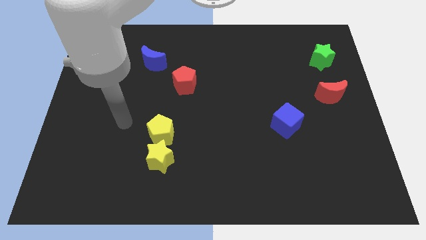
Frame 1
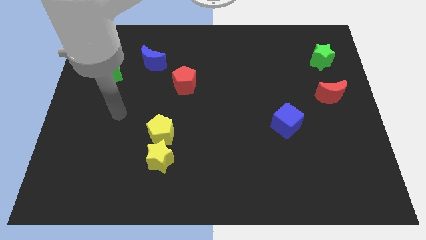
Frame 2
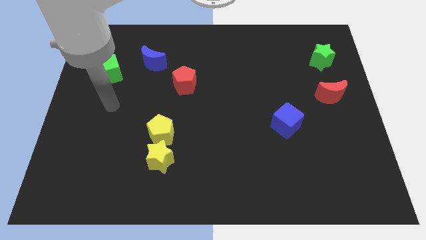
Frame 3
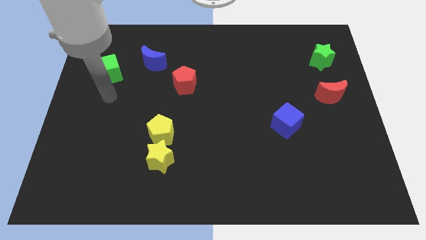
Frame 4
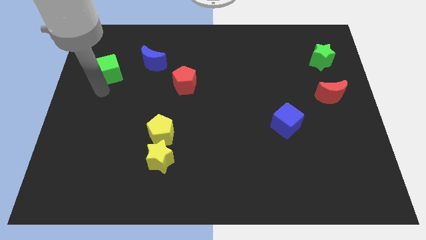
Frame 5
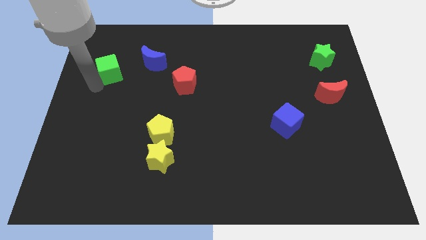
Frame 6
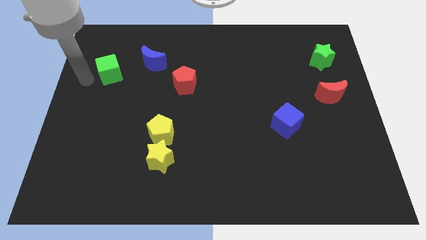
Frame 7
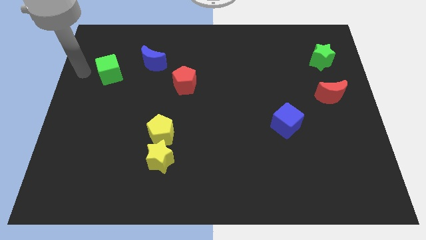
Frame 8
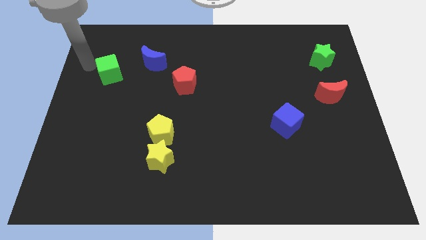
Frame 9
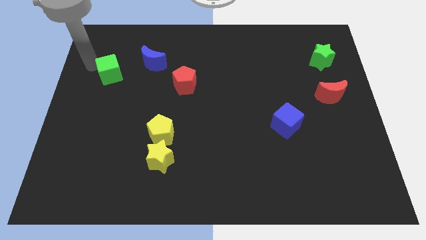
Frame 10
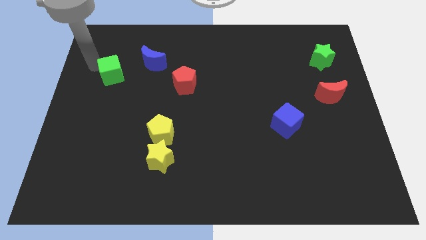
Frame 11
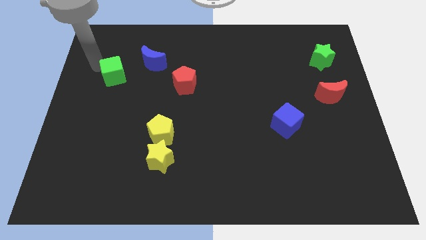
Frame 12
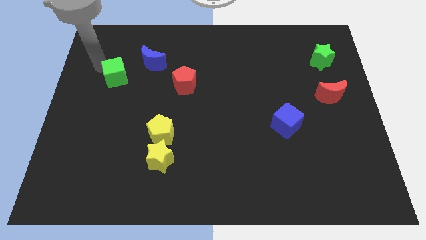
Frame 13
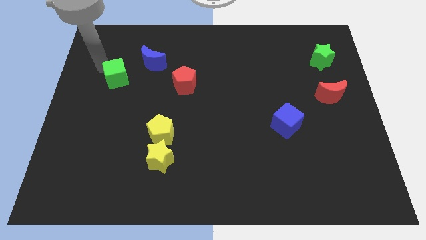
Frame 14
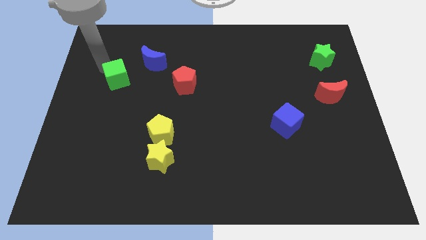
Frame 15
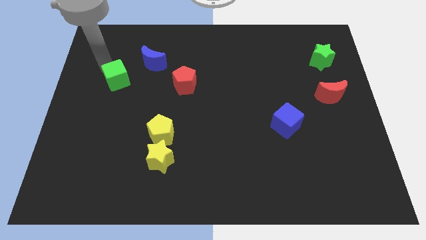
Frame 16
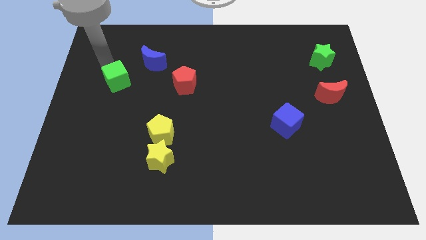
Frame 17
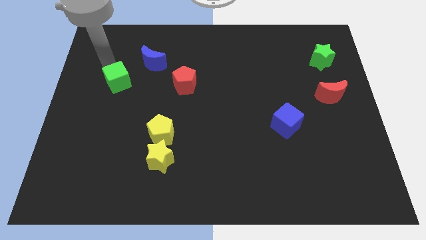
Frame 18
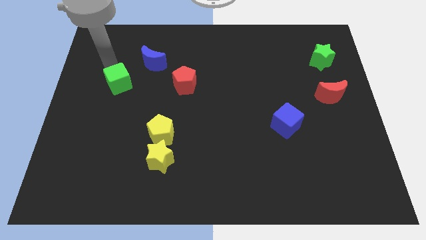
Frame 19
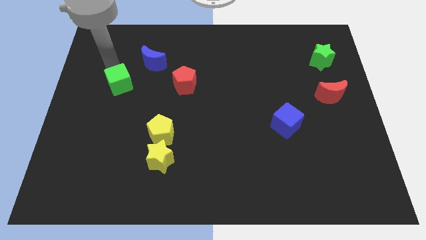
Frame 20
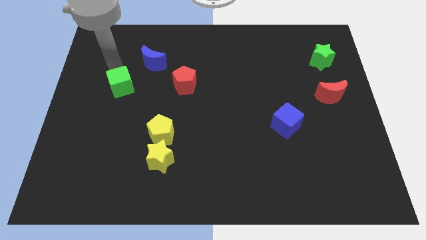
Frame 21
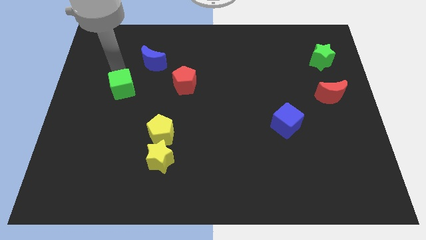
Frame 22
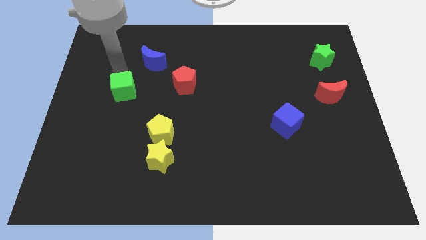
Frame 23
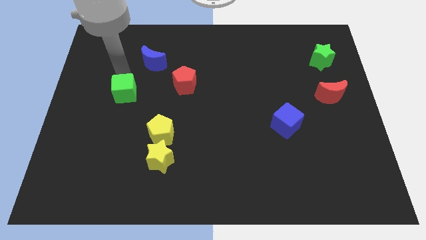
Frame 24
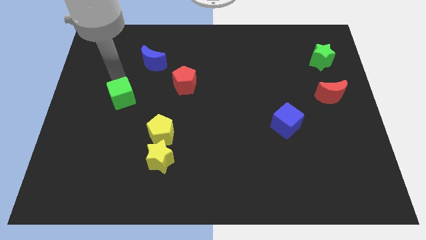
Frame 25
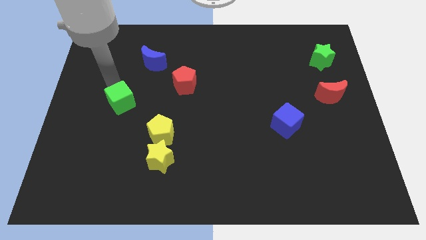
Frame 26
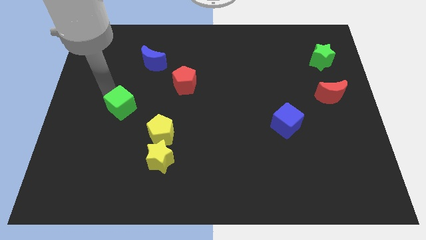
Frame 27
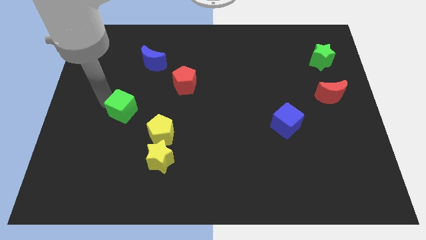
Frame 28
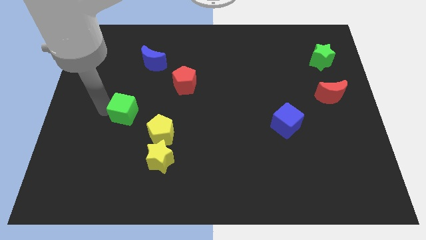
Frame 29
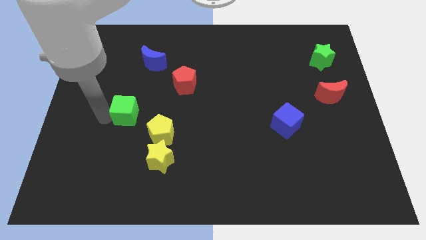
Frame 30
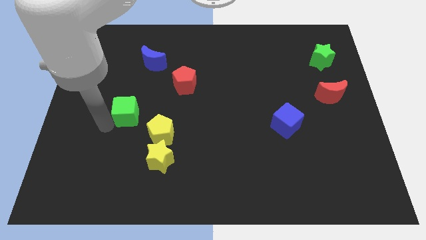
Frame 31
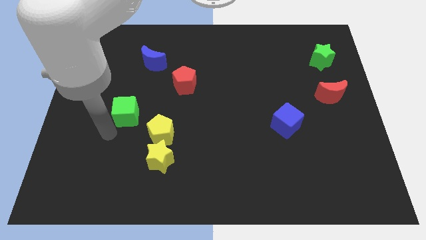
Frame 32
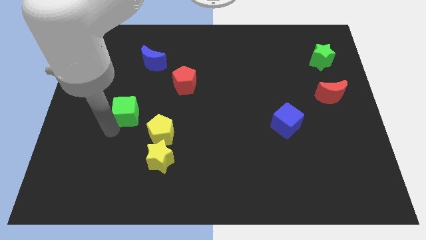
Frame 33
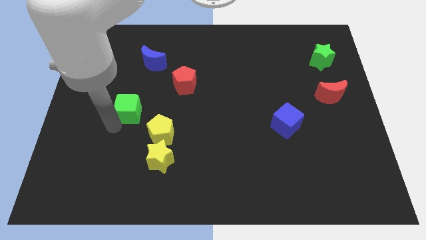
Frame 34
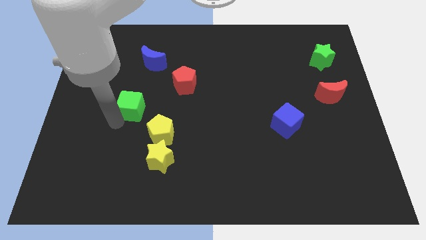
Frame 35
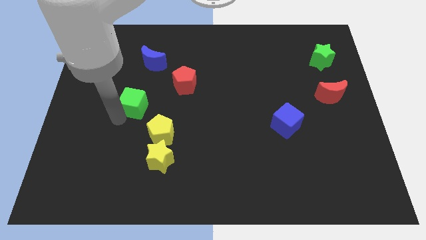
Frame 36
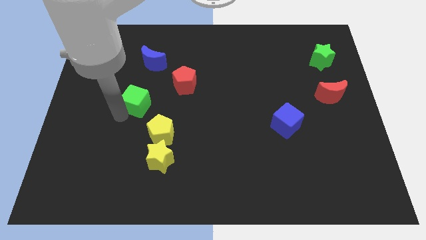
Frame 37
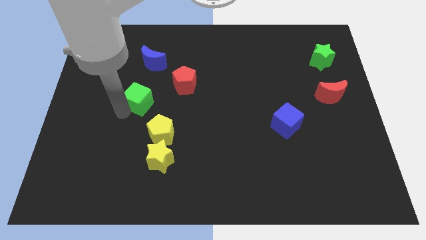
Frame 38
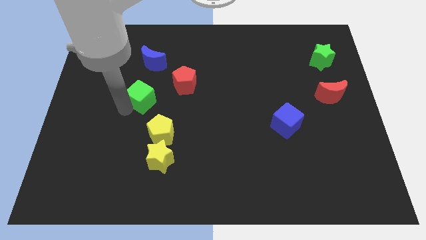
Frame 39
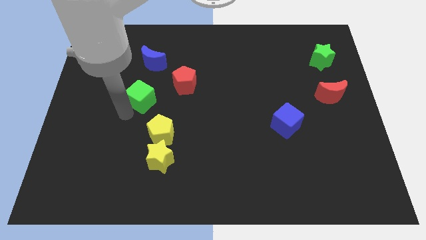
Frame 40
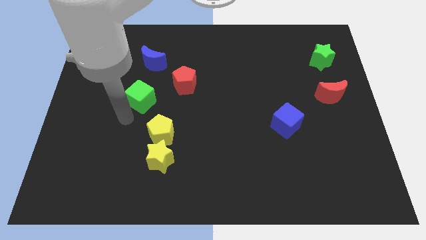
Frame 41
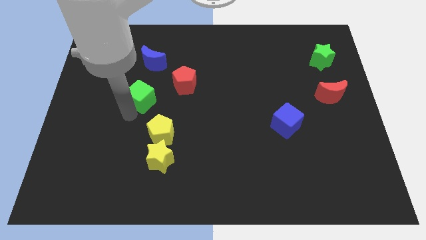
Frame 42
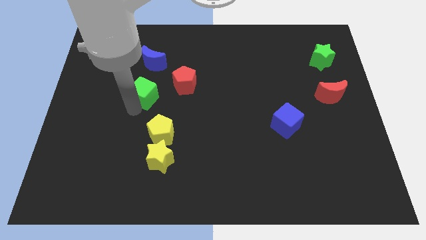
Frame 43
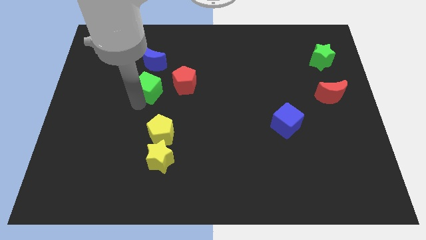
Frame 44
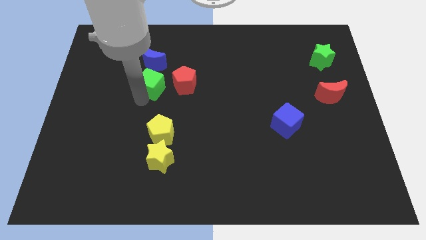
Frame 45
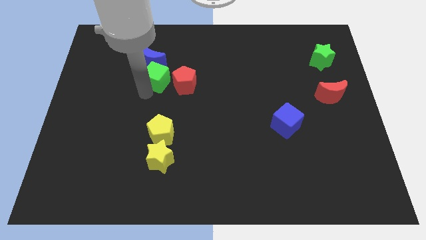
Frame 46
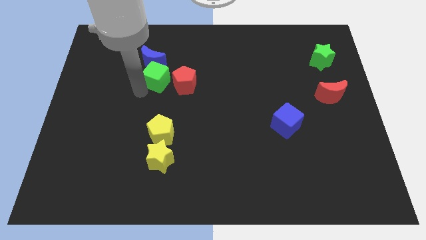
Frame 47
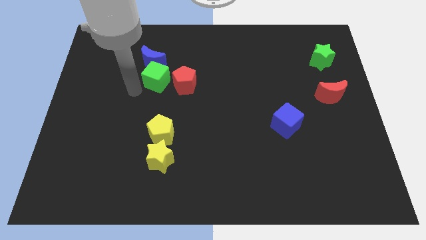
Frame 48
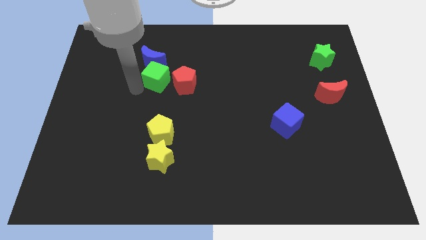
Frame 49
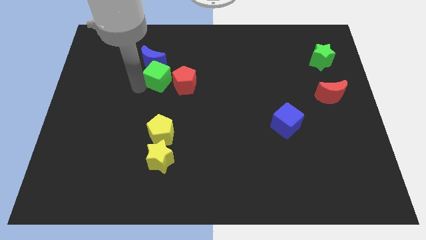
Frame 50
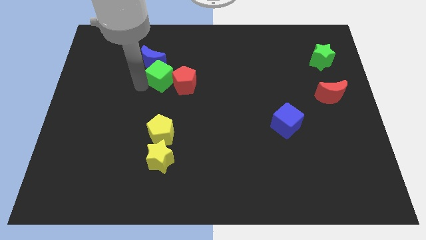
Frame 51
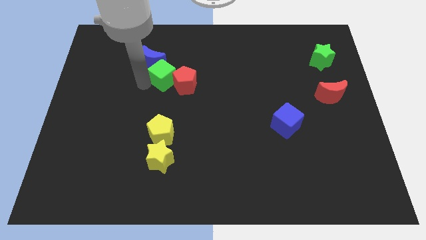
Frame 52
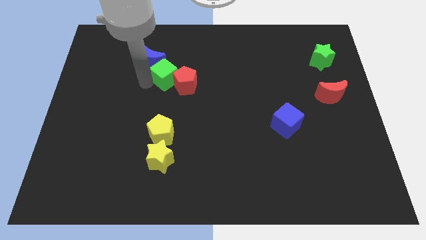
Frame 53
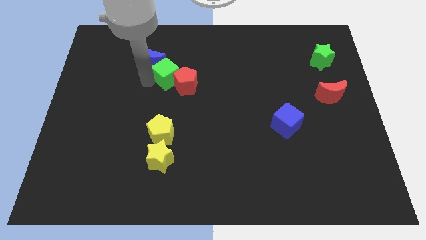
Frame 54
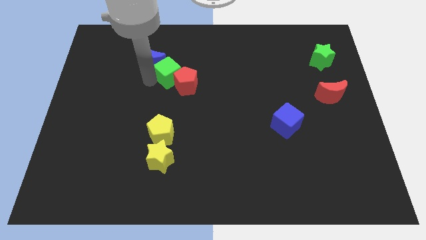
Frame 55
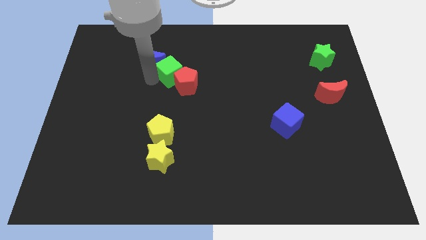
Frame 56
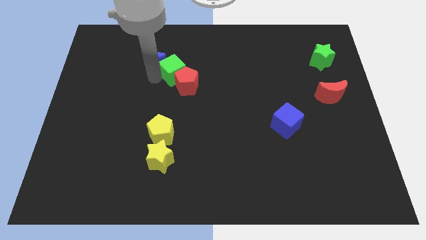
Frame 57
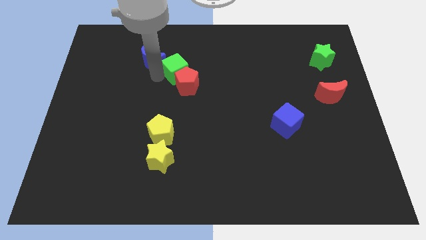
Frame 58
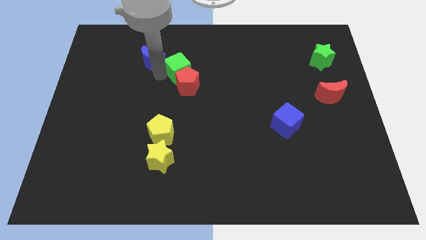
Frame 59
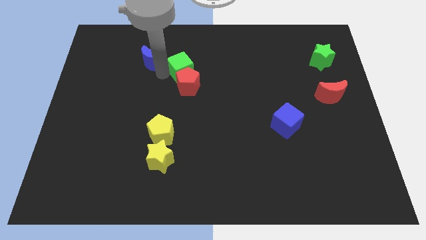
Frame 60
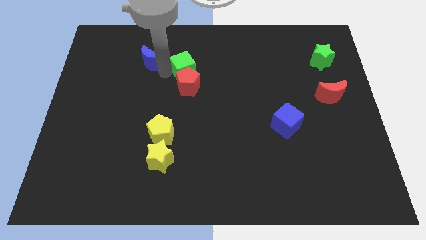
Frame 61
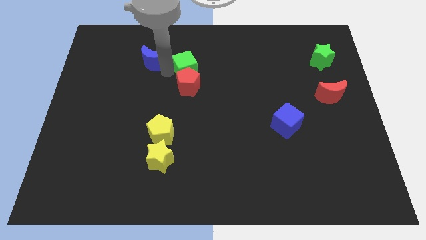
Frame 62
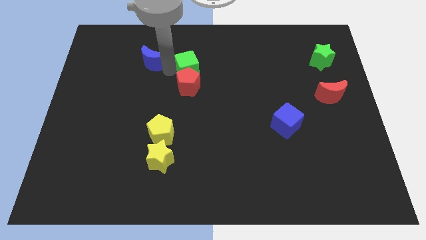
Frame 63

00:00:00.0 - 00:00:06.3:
push the green cube to the right

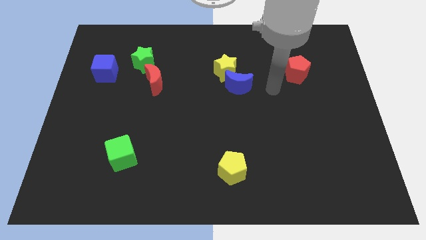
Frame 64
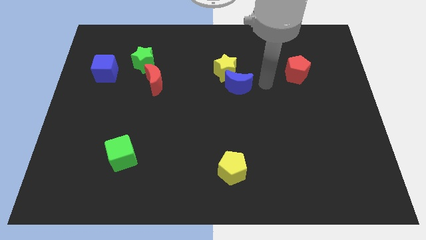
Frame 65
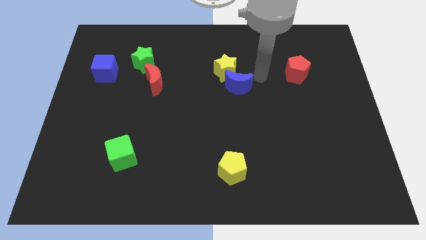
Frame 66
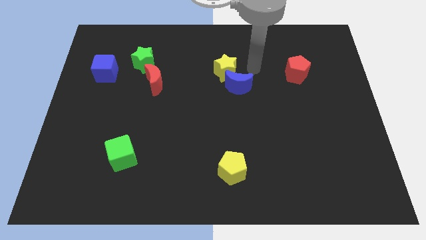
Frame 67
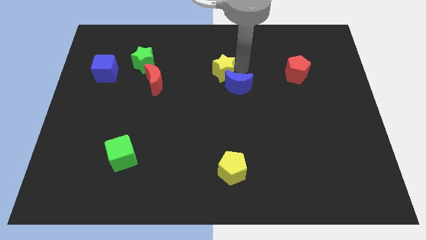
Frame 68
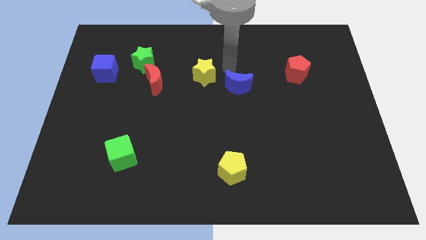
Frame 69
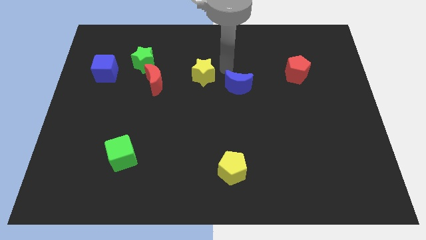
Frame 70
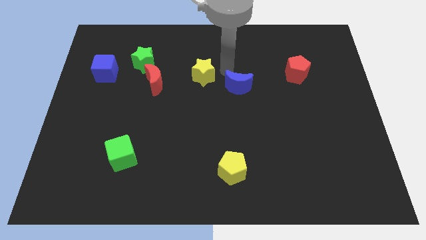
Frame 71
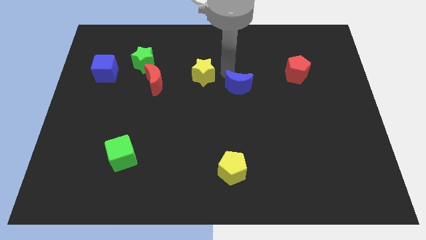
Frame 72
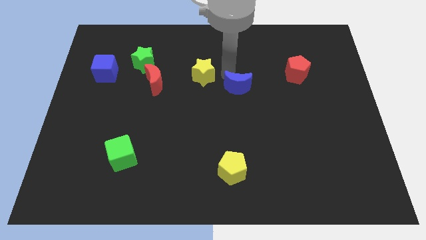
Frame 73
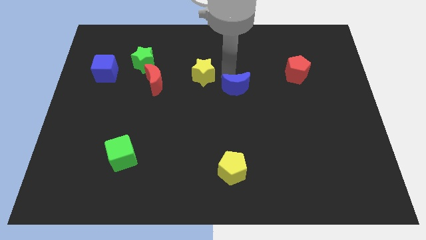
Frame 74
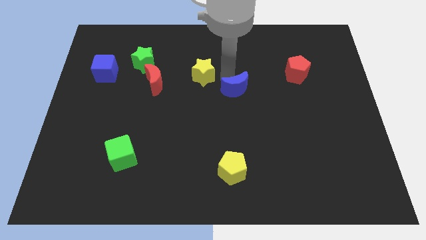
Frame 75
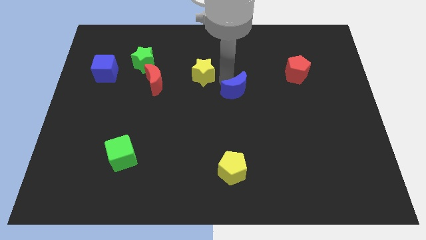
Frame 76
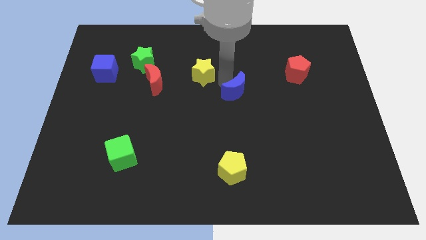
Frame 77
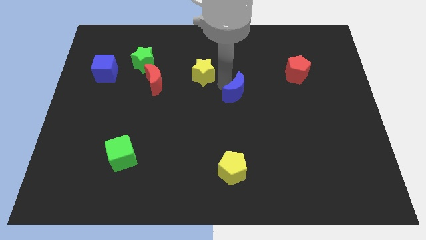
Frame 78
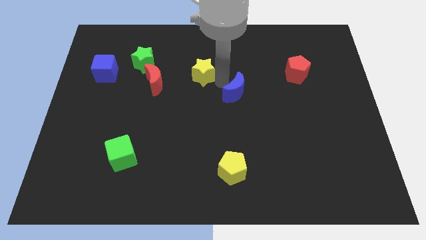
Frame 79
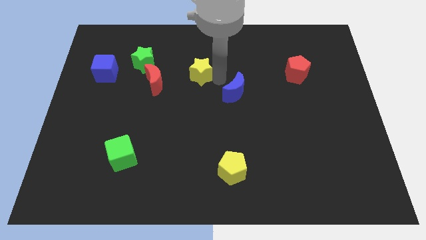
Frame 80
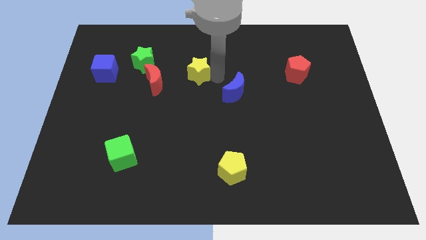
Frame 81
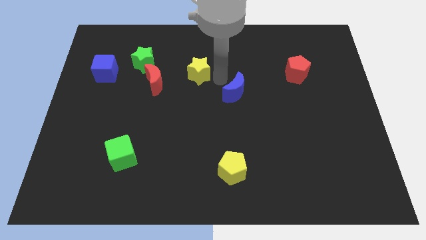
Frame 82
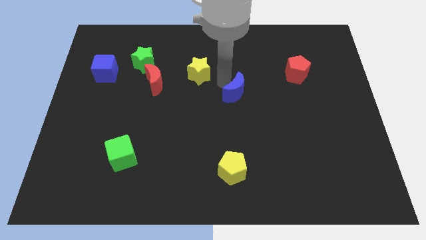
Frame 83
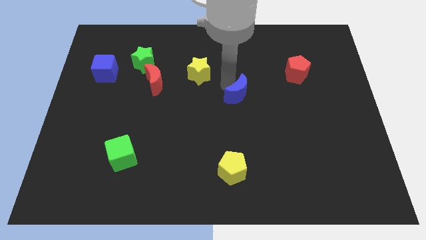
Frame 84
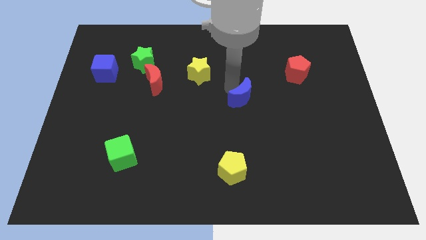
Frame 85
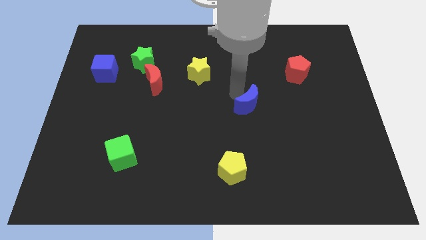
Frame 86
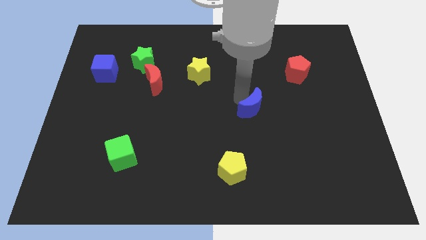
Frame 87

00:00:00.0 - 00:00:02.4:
slide the blue moon downwards and right diagonally a little
